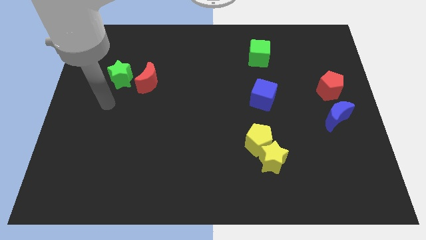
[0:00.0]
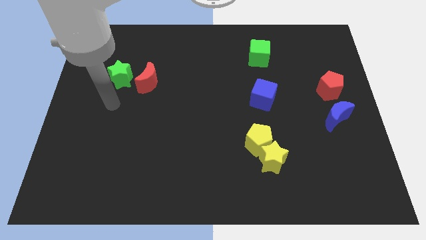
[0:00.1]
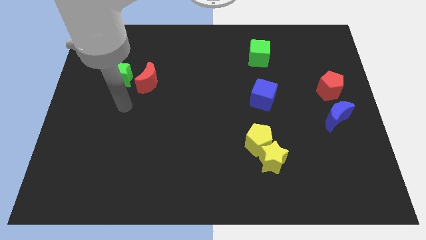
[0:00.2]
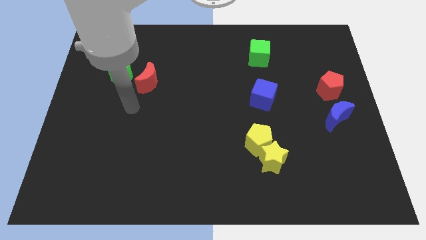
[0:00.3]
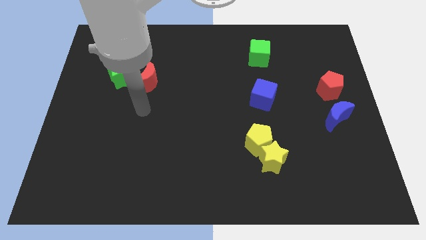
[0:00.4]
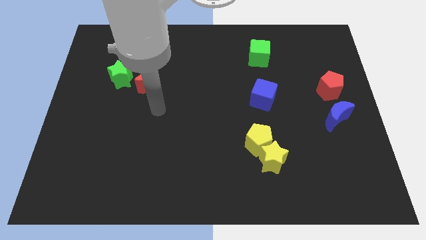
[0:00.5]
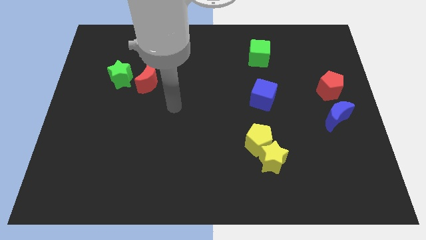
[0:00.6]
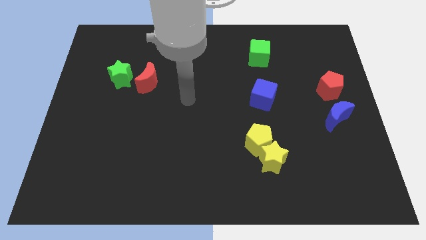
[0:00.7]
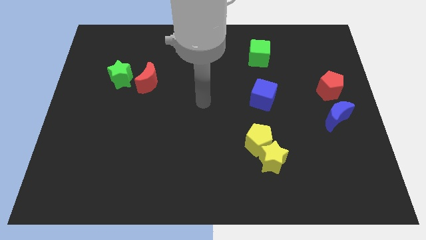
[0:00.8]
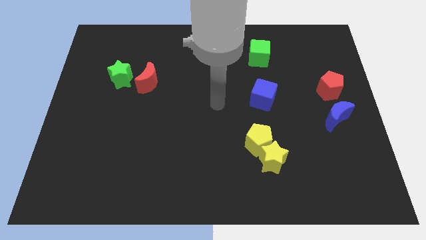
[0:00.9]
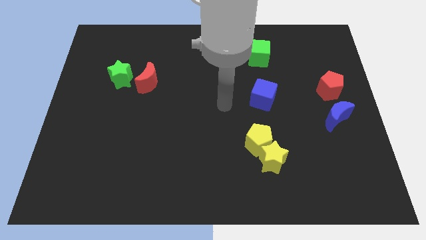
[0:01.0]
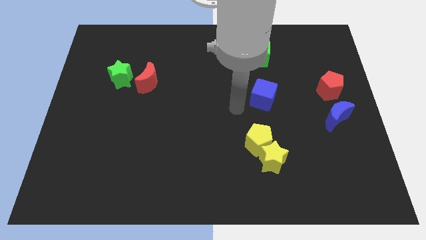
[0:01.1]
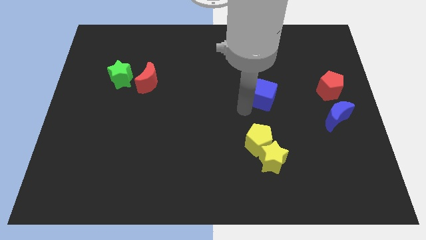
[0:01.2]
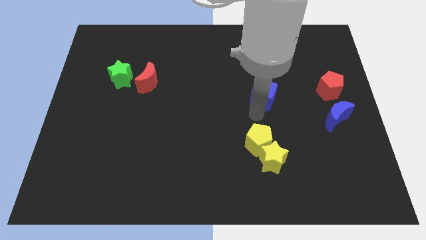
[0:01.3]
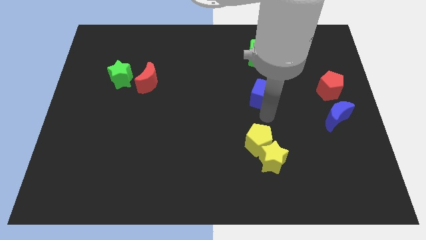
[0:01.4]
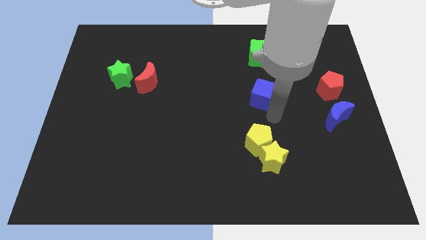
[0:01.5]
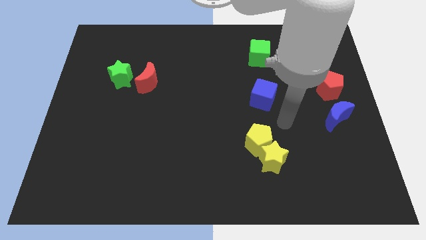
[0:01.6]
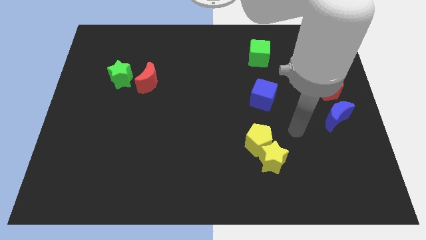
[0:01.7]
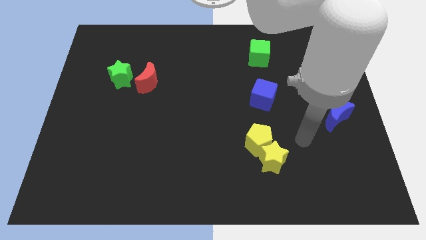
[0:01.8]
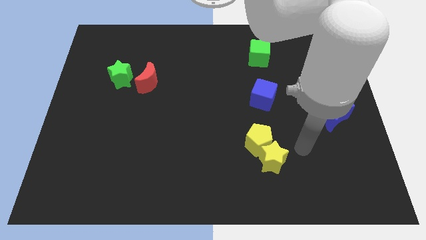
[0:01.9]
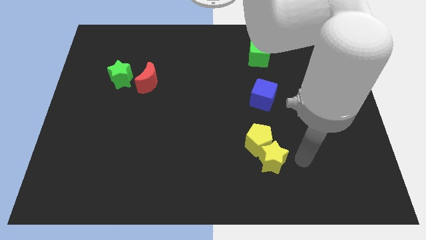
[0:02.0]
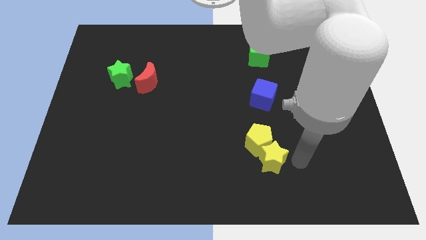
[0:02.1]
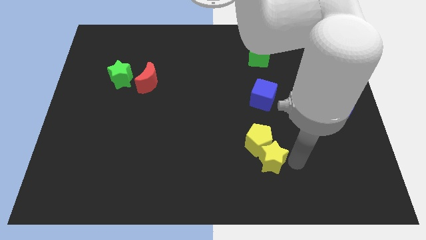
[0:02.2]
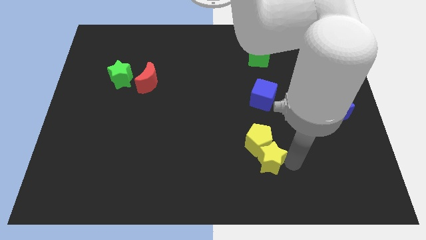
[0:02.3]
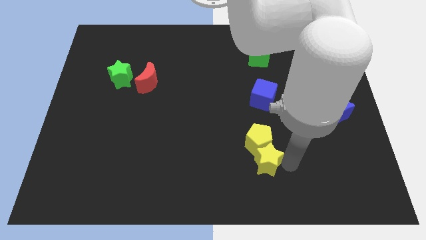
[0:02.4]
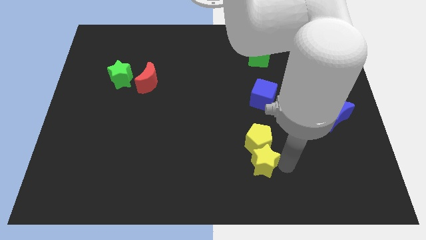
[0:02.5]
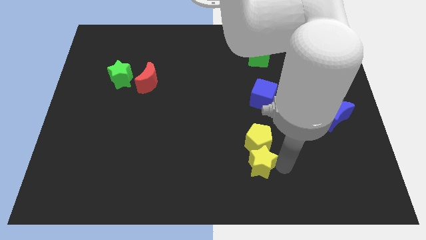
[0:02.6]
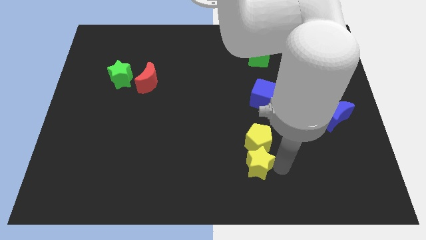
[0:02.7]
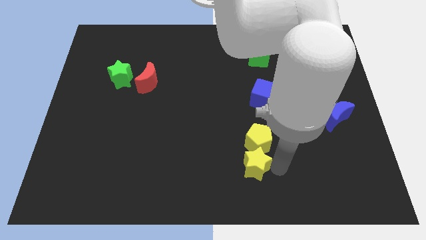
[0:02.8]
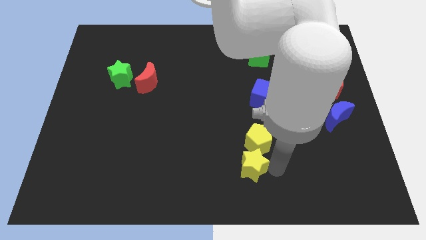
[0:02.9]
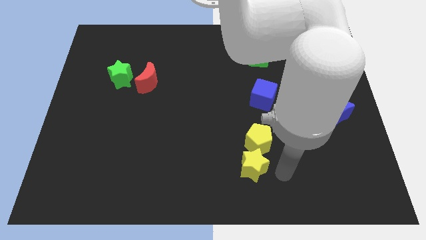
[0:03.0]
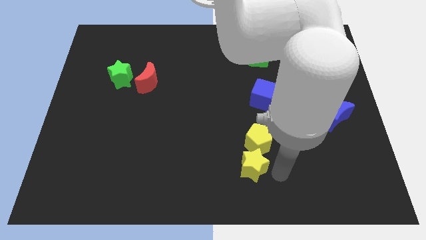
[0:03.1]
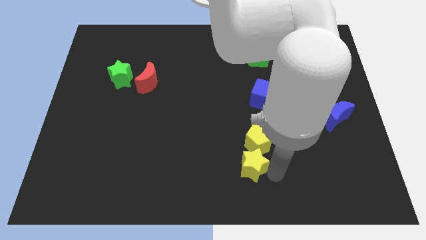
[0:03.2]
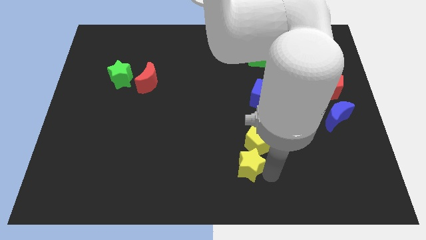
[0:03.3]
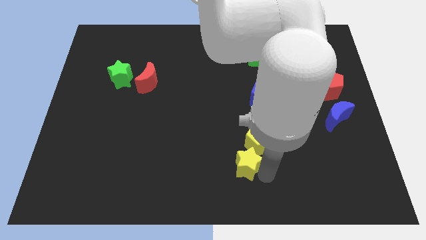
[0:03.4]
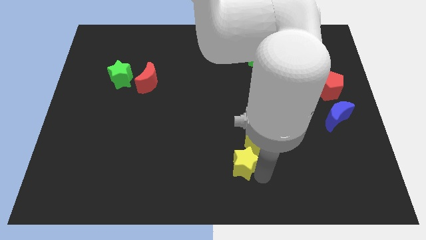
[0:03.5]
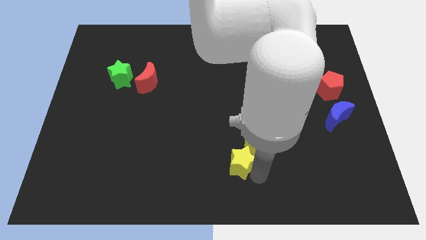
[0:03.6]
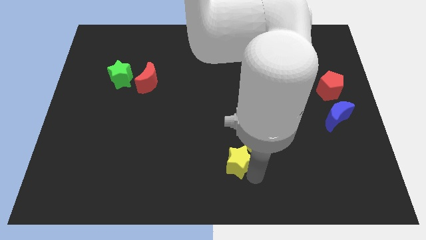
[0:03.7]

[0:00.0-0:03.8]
push the yellow star somewhat left

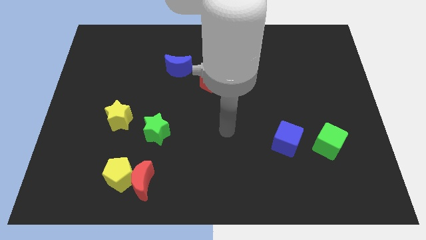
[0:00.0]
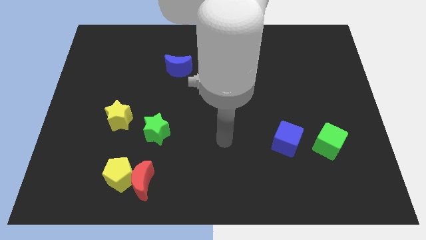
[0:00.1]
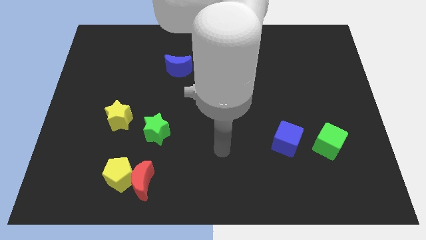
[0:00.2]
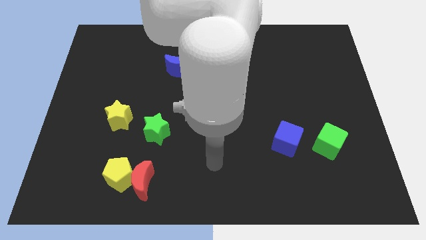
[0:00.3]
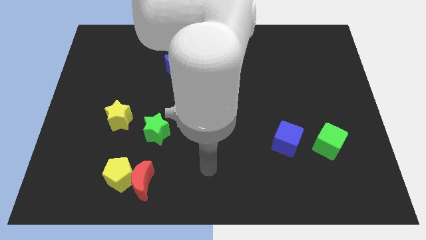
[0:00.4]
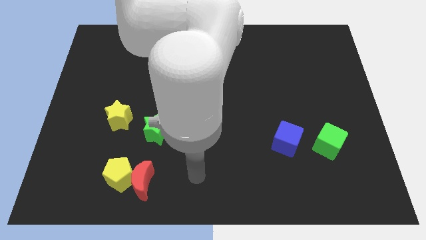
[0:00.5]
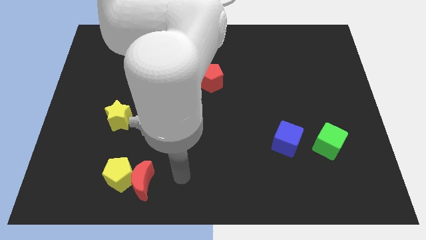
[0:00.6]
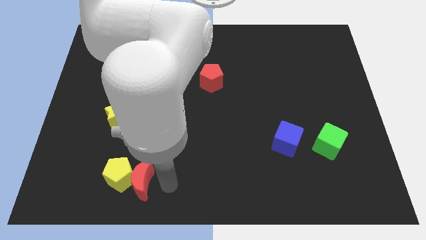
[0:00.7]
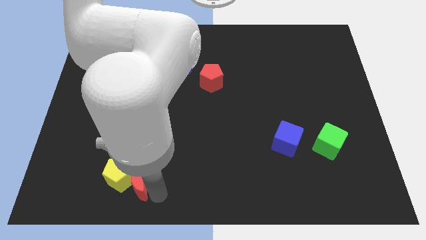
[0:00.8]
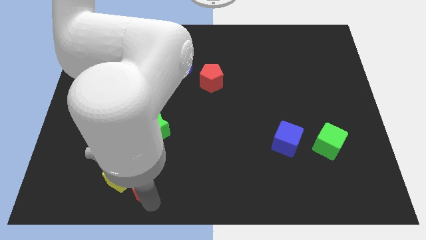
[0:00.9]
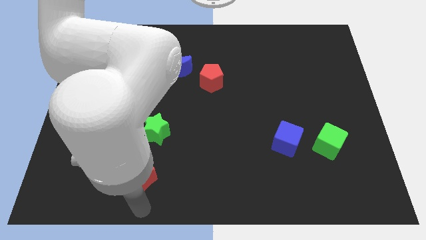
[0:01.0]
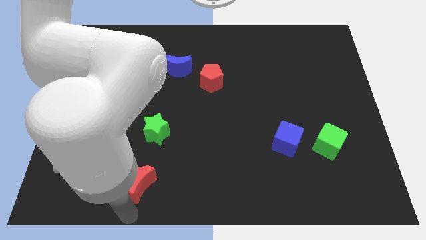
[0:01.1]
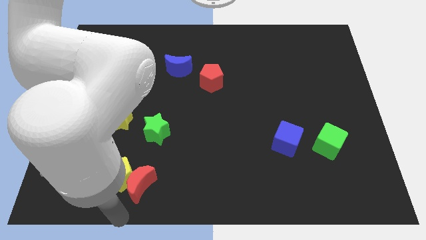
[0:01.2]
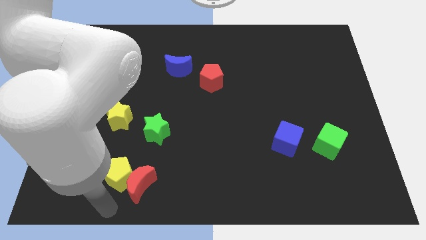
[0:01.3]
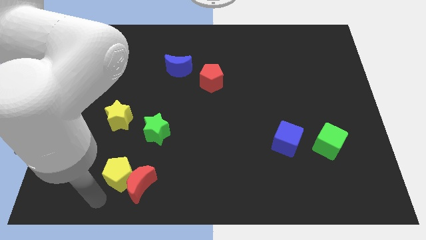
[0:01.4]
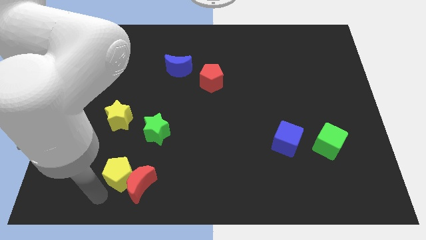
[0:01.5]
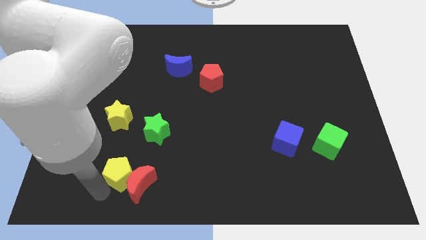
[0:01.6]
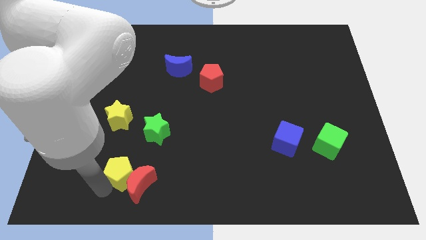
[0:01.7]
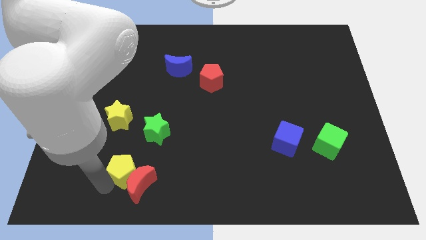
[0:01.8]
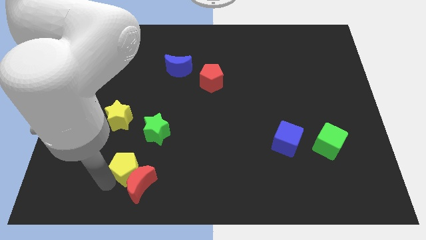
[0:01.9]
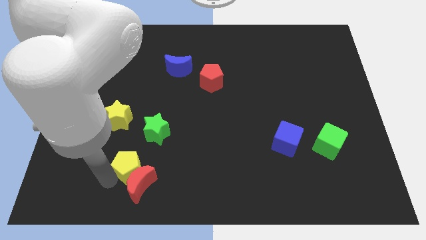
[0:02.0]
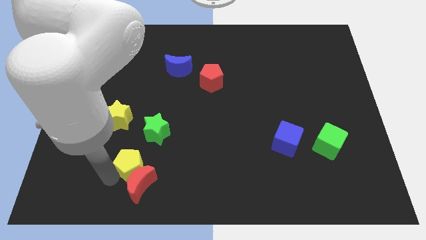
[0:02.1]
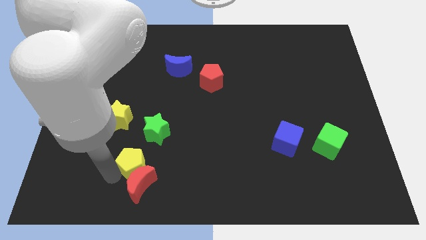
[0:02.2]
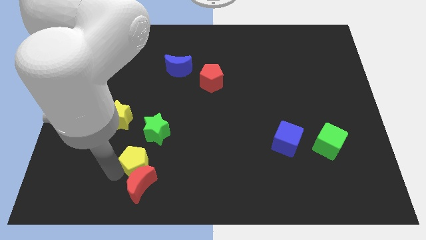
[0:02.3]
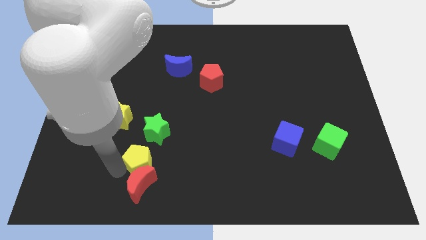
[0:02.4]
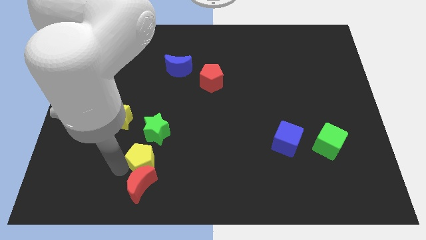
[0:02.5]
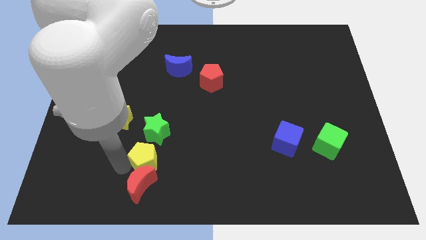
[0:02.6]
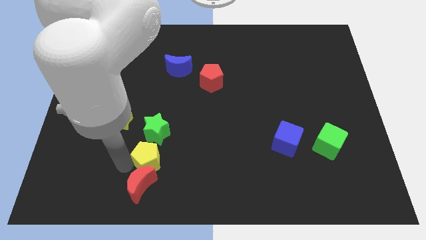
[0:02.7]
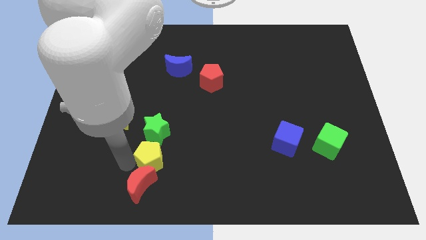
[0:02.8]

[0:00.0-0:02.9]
move the yellow pentagon diagonally up and to the right a little

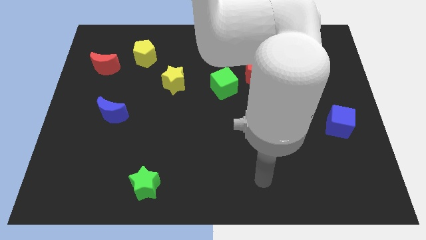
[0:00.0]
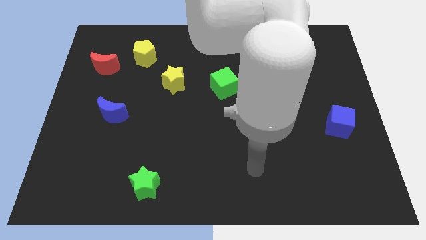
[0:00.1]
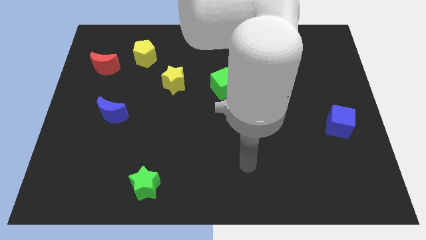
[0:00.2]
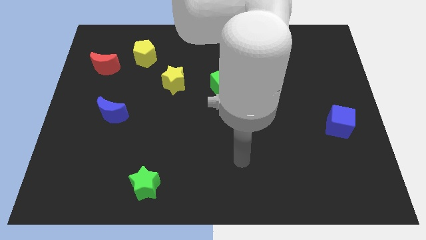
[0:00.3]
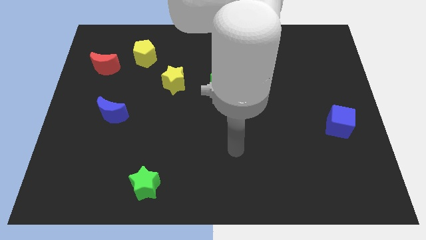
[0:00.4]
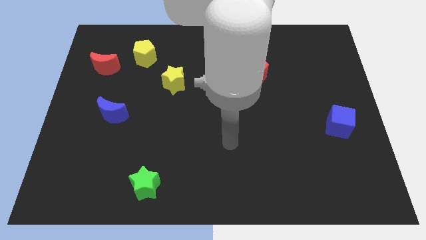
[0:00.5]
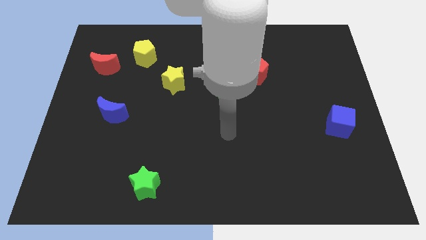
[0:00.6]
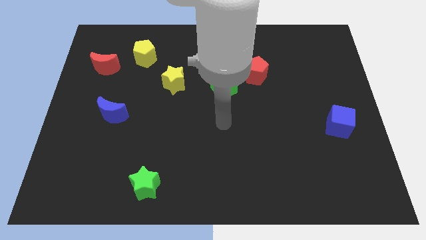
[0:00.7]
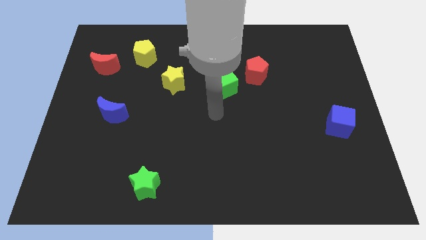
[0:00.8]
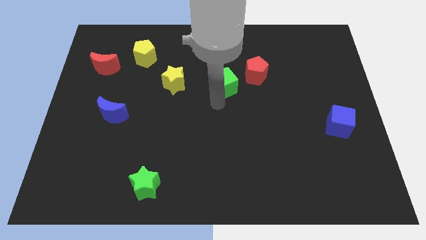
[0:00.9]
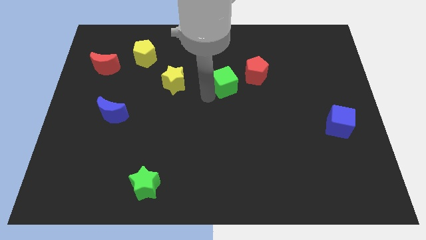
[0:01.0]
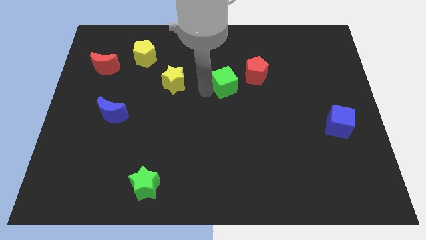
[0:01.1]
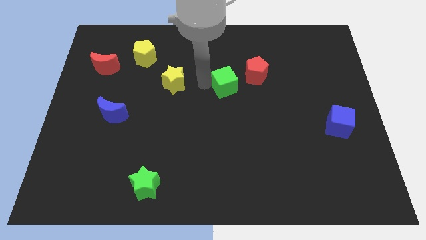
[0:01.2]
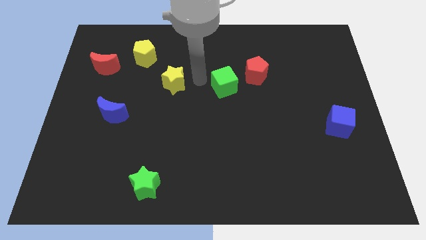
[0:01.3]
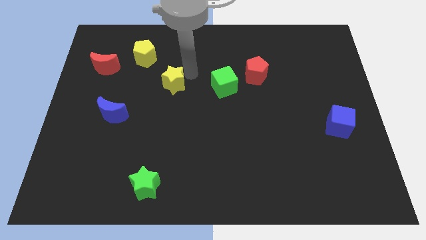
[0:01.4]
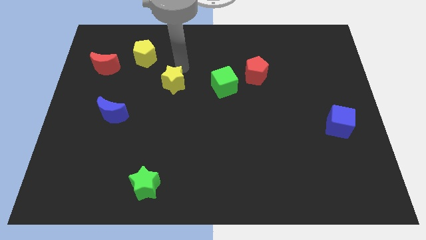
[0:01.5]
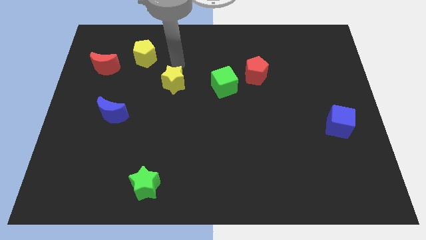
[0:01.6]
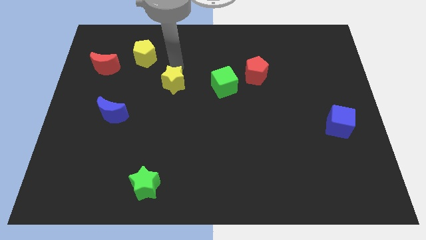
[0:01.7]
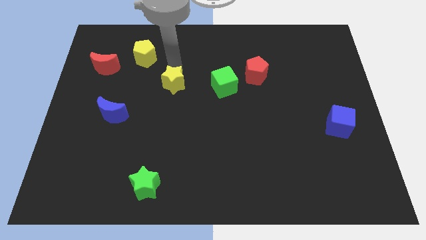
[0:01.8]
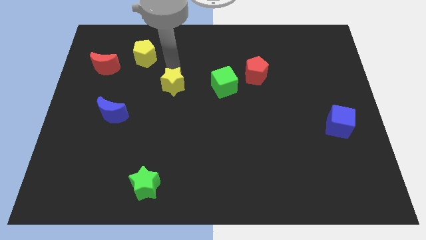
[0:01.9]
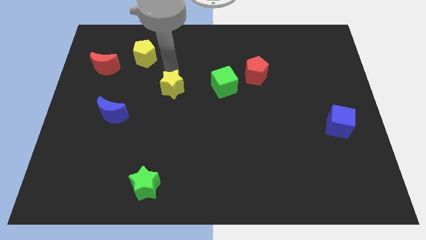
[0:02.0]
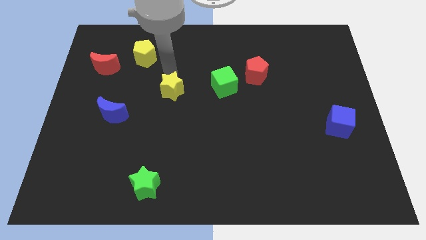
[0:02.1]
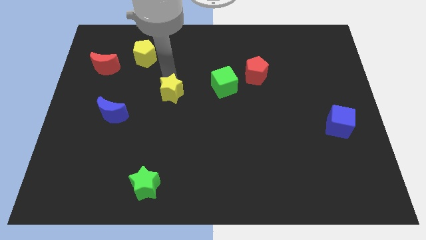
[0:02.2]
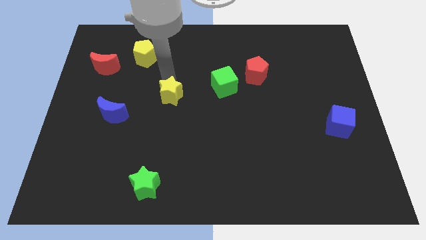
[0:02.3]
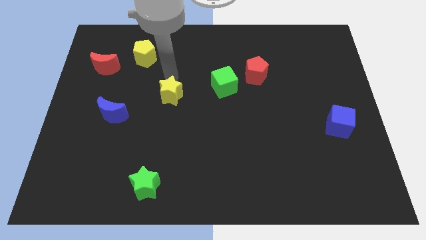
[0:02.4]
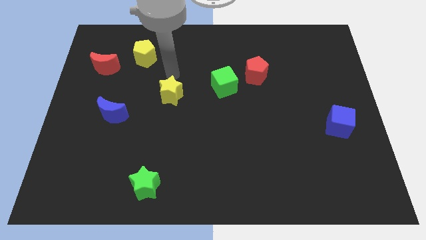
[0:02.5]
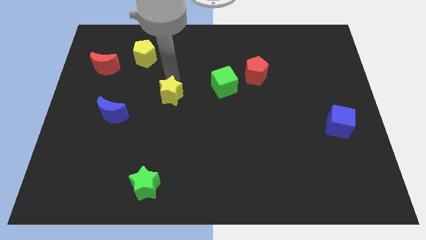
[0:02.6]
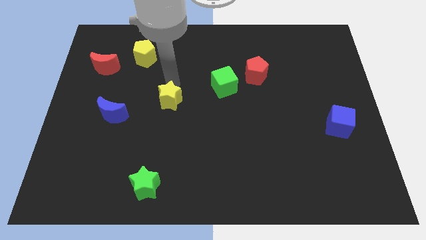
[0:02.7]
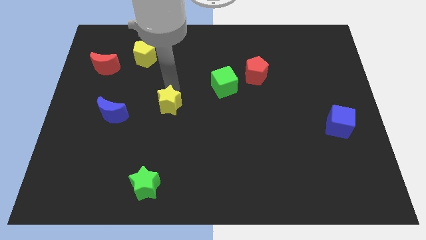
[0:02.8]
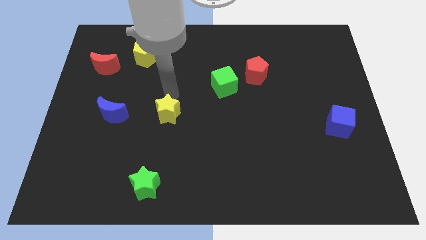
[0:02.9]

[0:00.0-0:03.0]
move the yellow star downwards slightly
